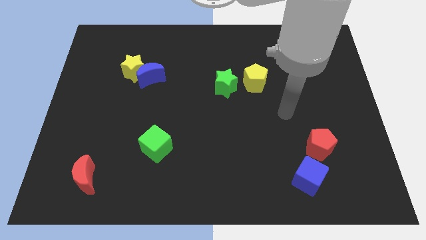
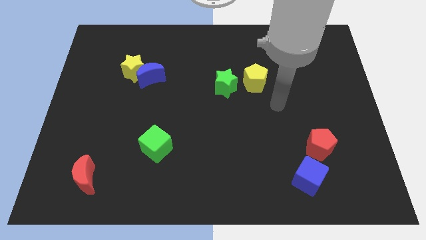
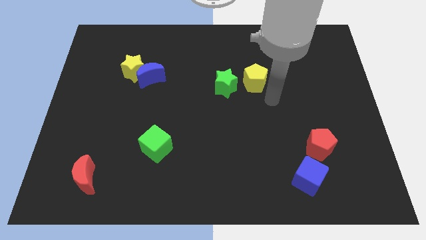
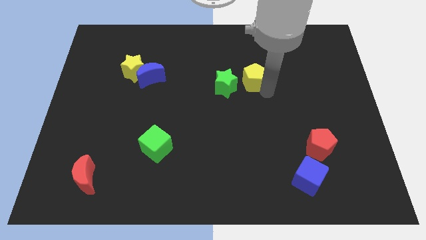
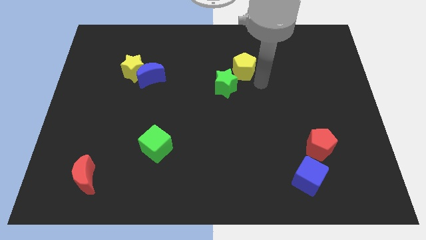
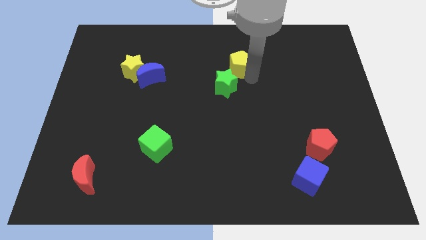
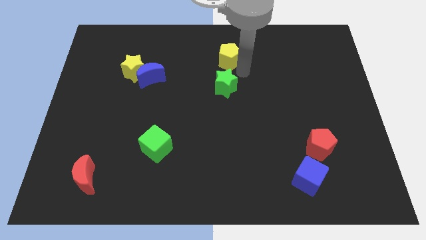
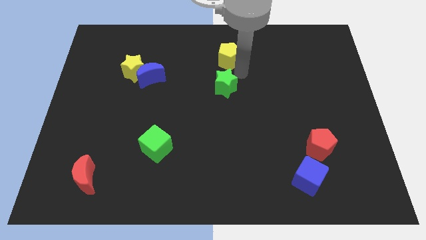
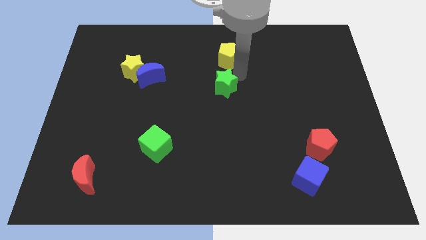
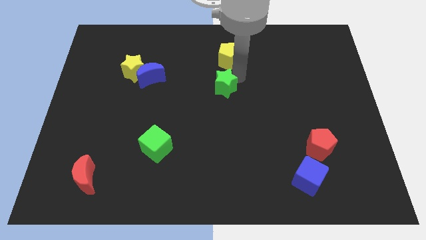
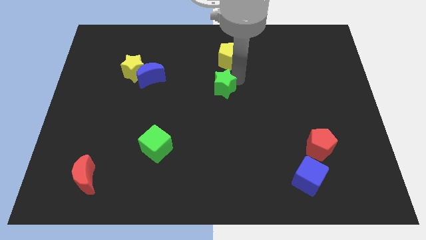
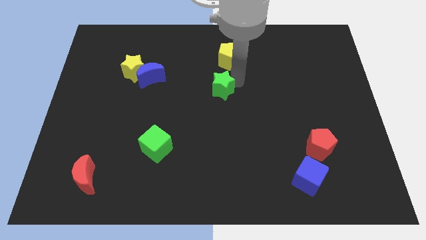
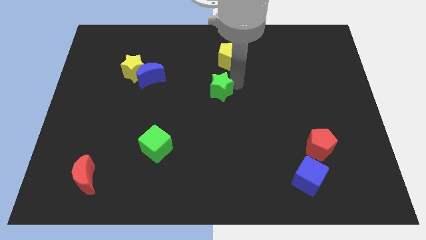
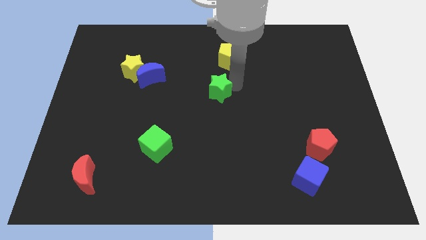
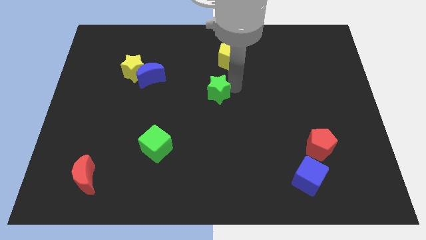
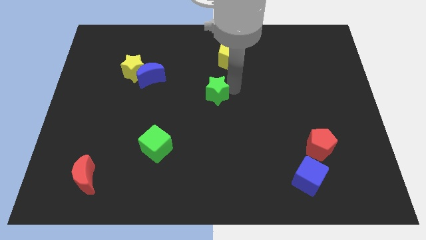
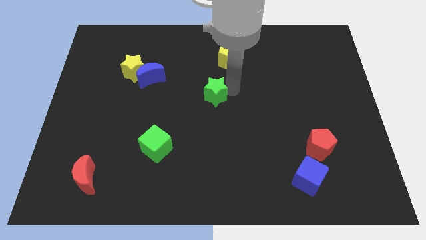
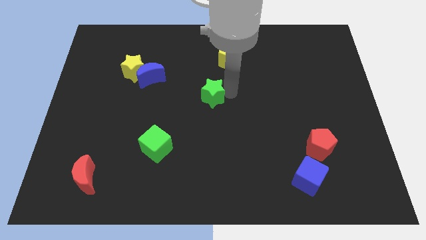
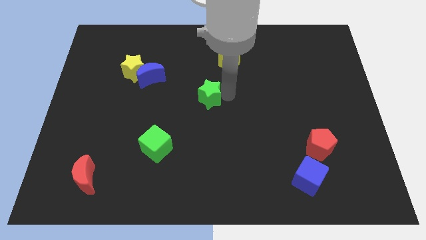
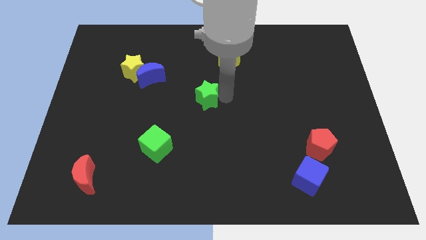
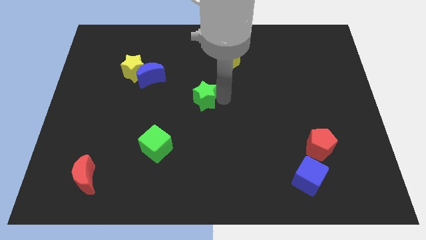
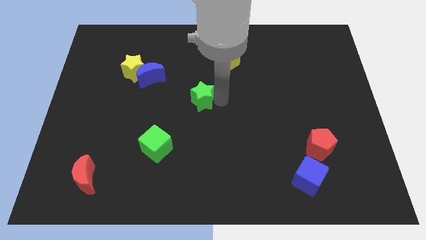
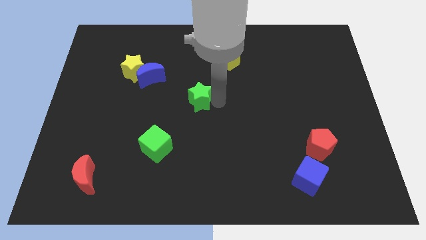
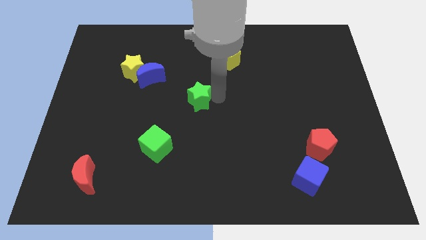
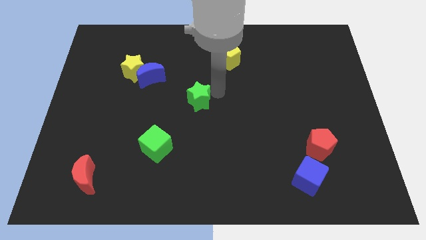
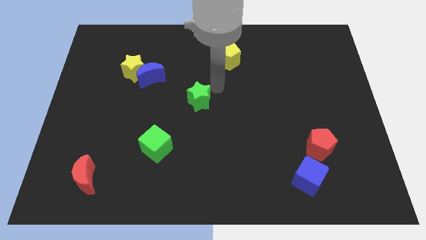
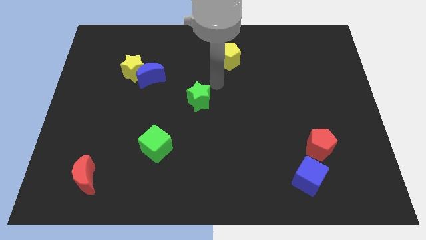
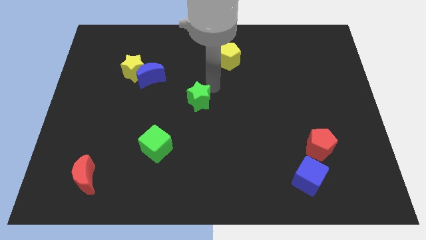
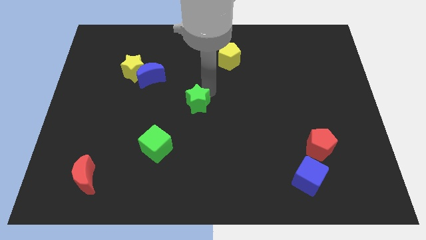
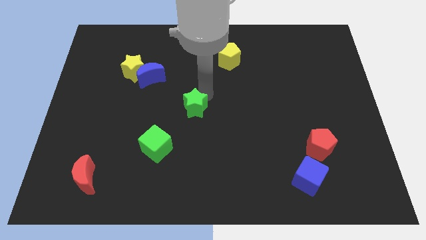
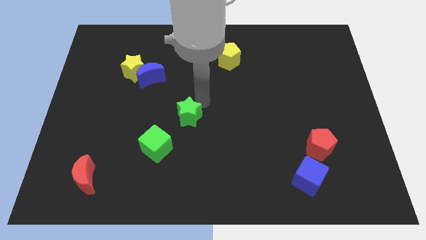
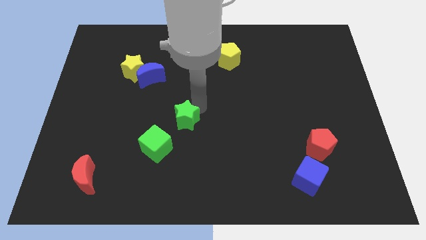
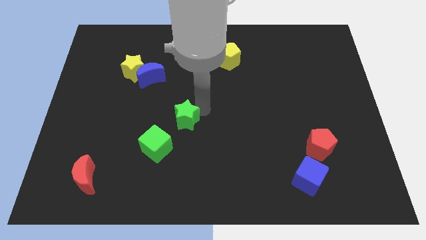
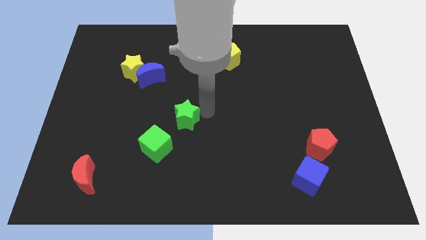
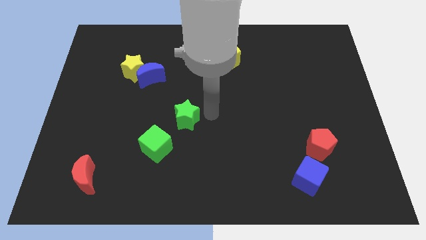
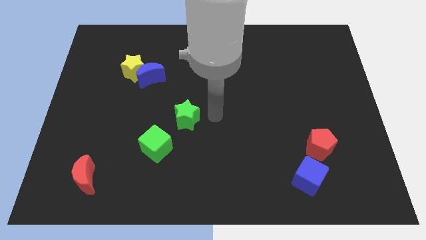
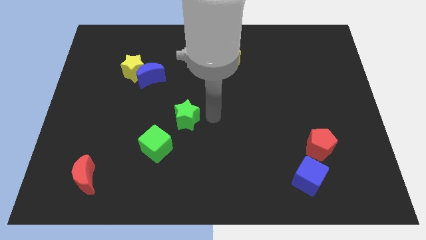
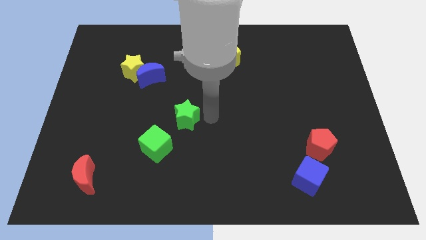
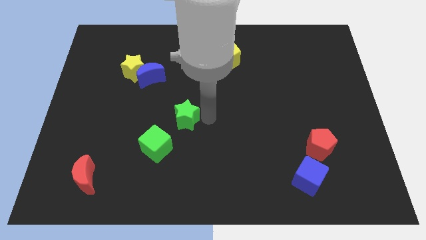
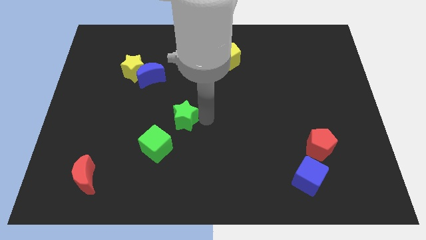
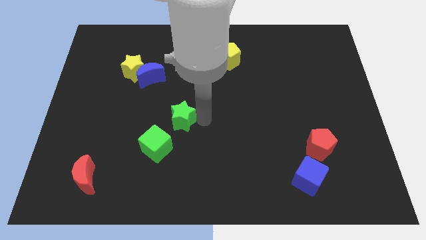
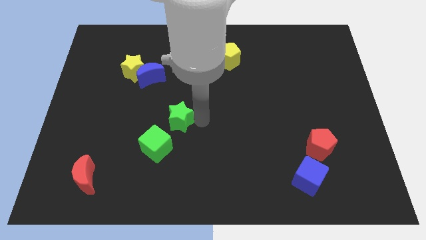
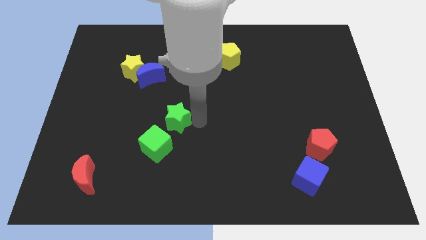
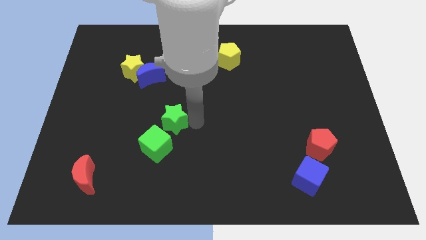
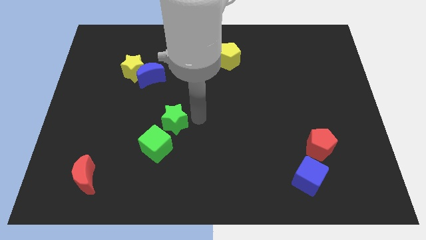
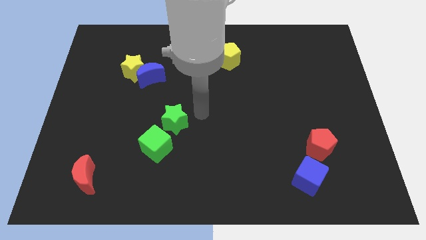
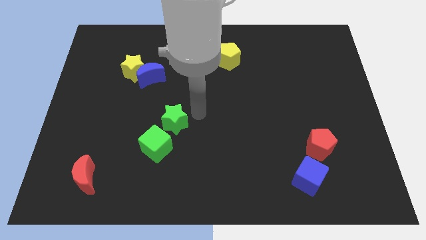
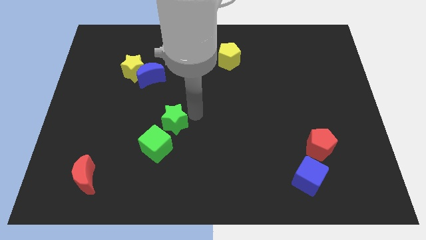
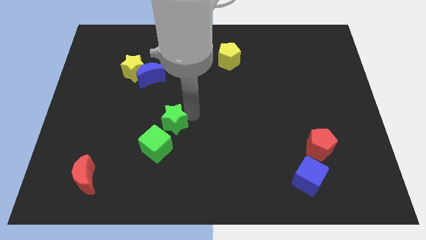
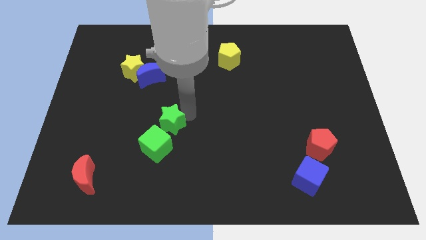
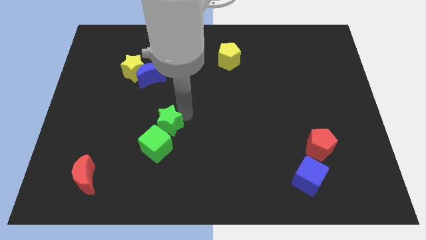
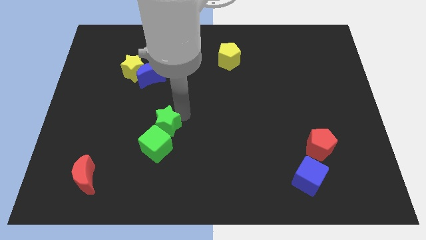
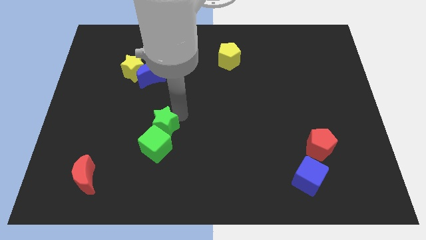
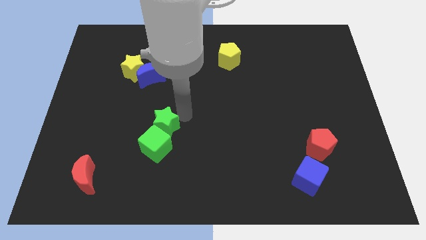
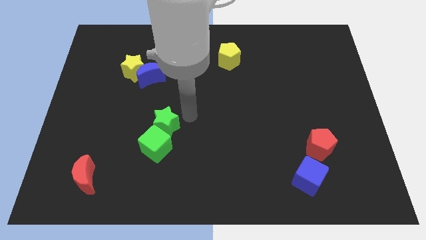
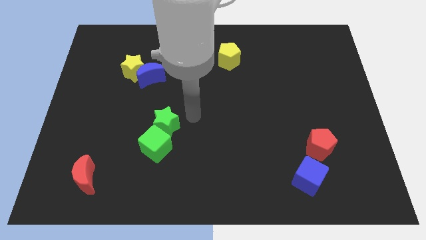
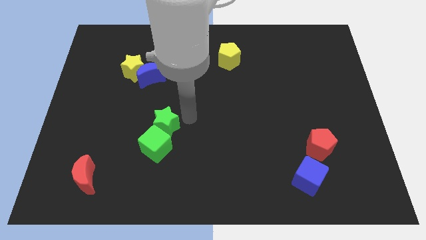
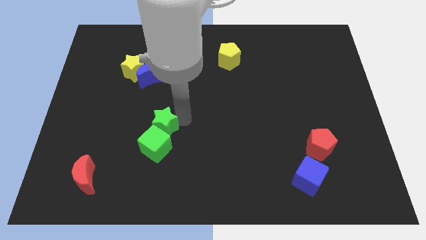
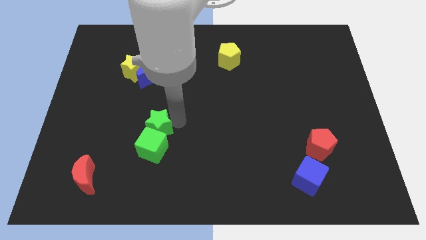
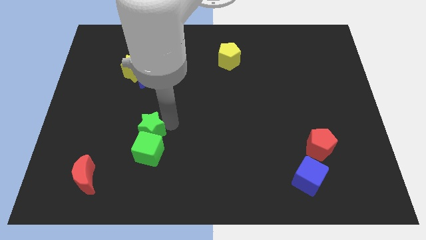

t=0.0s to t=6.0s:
slide the green star downwards and to the left diagonally

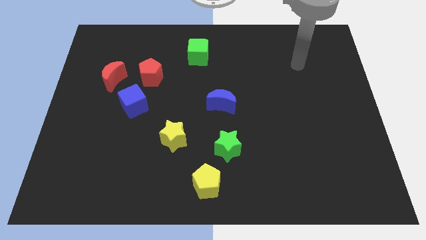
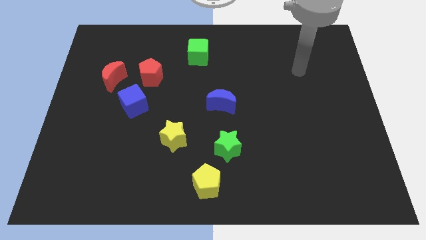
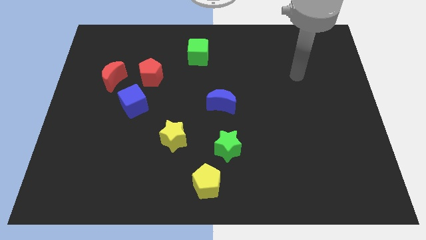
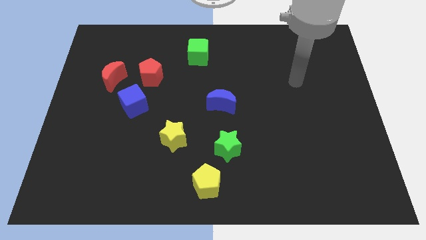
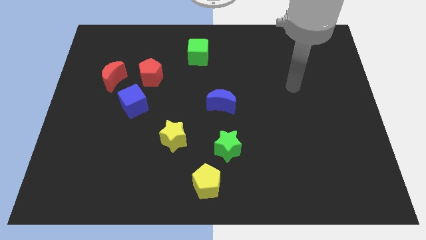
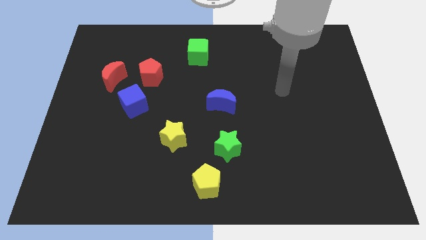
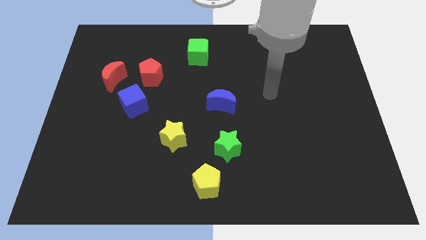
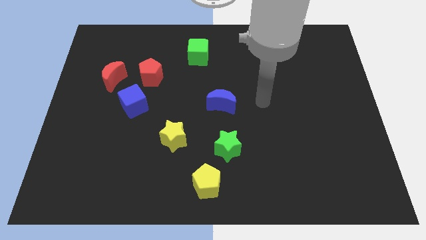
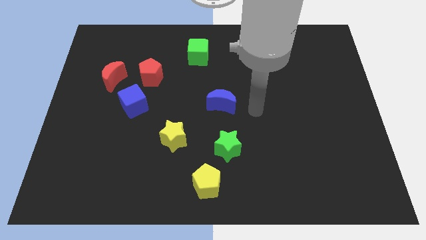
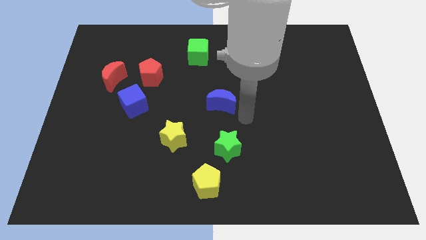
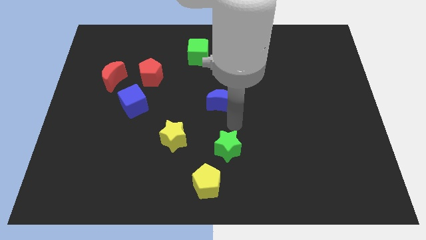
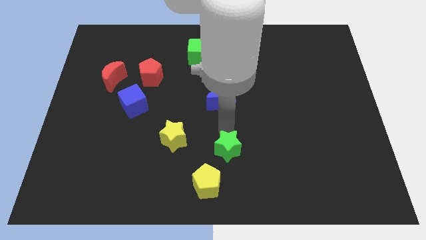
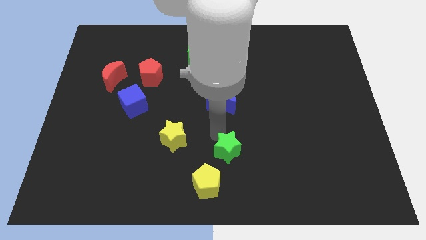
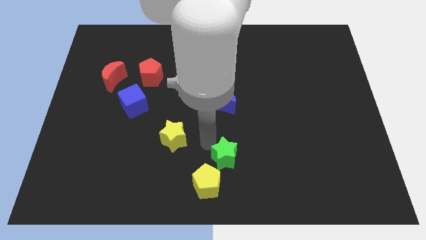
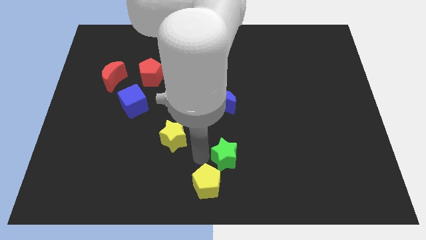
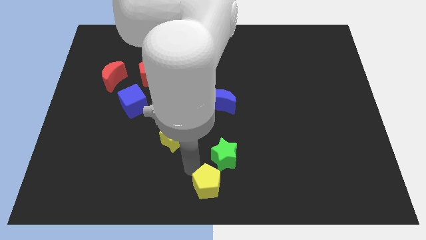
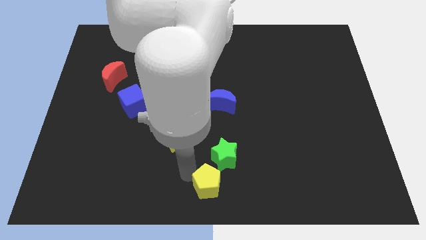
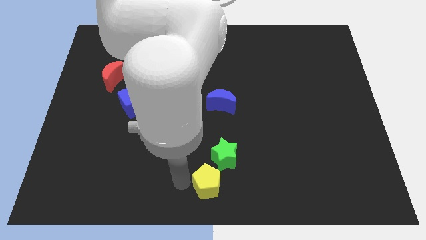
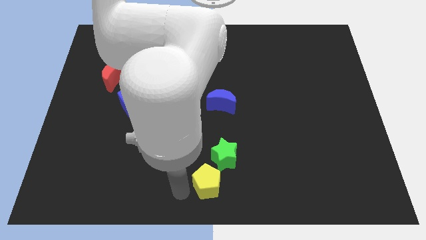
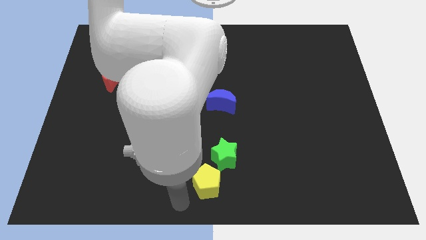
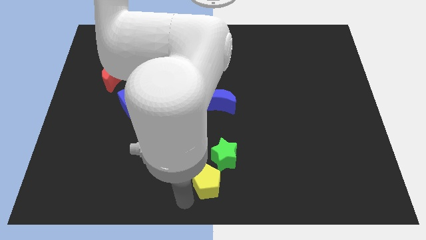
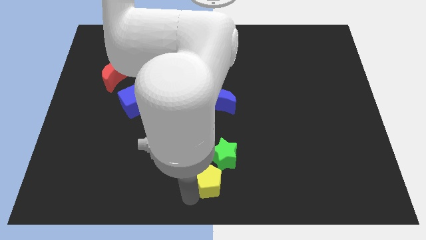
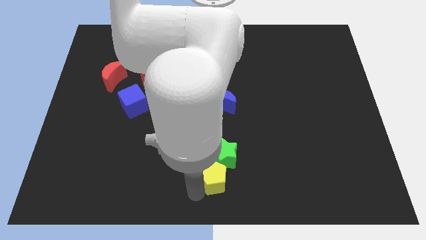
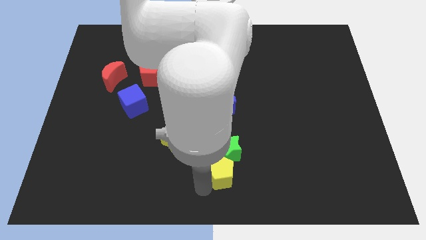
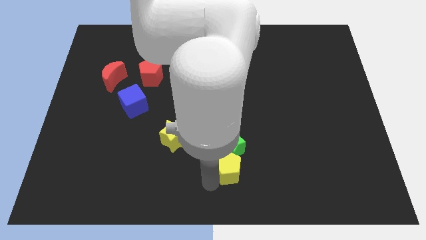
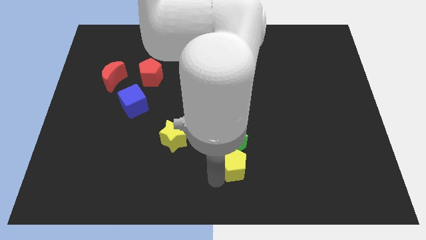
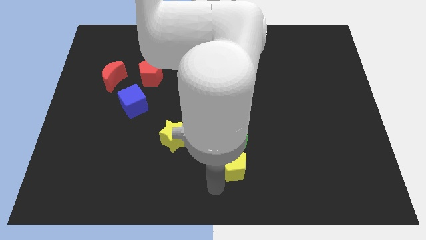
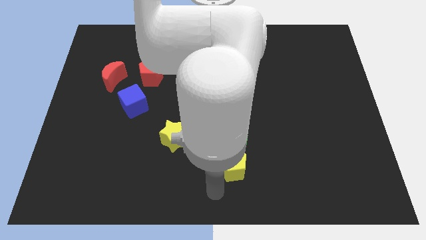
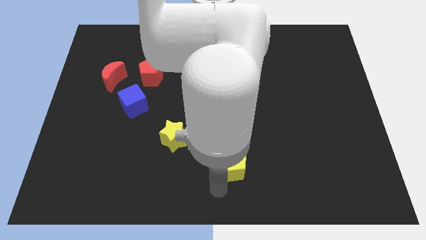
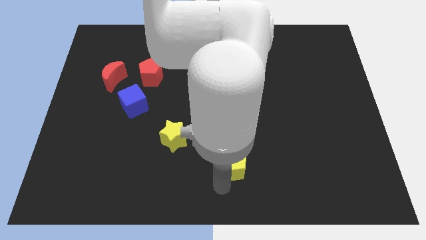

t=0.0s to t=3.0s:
slightly move the yellow pentagon up and to the right diagonally
